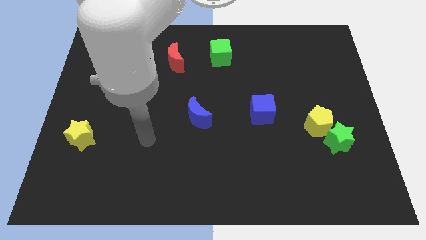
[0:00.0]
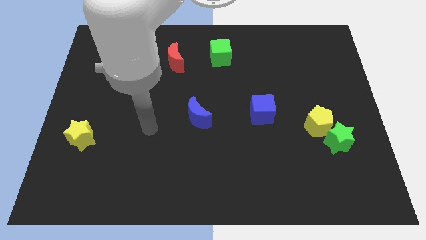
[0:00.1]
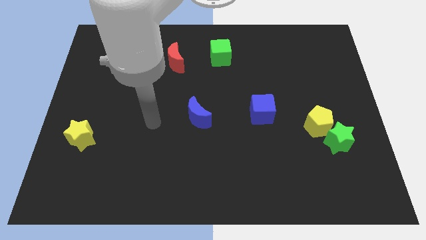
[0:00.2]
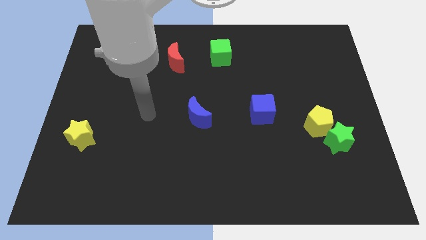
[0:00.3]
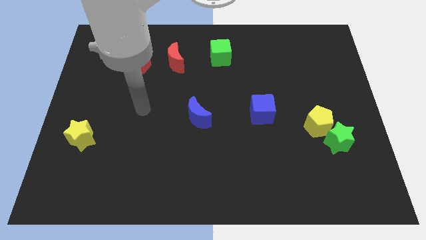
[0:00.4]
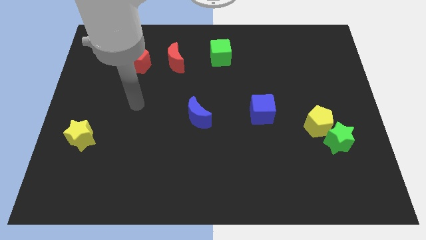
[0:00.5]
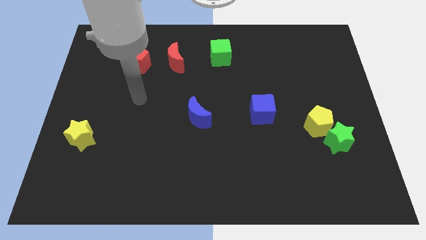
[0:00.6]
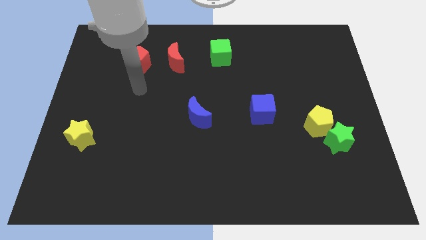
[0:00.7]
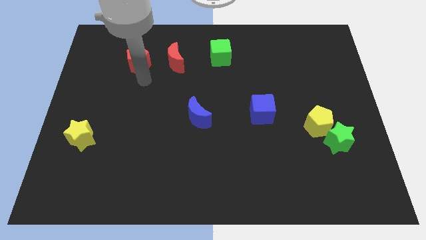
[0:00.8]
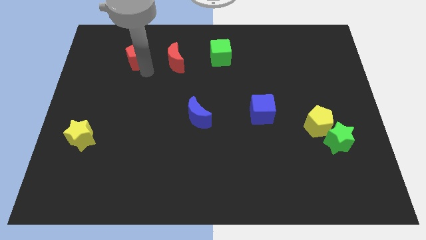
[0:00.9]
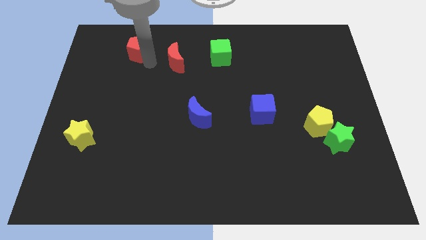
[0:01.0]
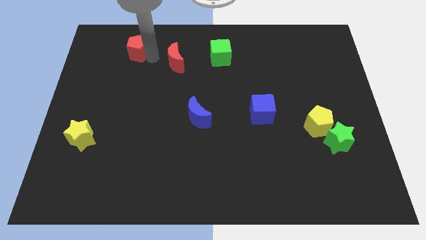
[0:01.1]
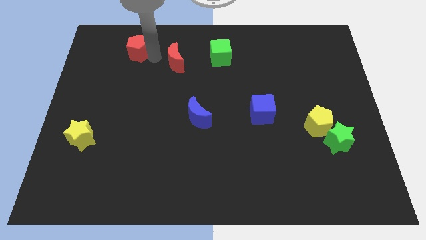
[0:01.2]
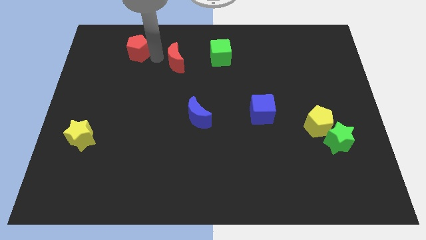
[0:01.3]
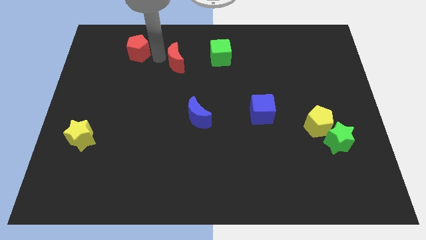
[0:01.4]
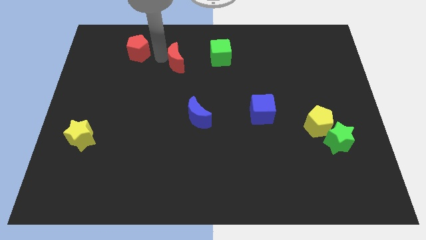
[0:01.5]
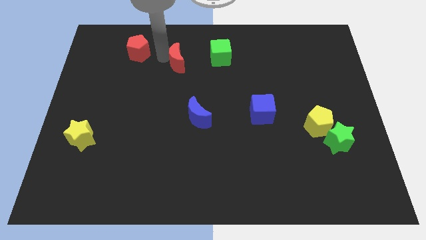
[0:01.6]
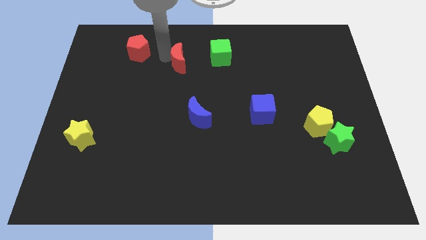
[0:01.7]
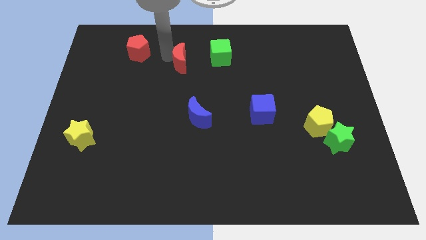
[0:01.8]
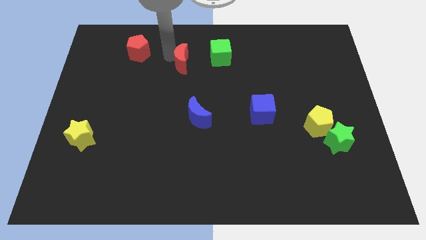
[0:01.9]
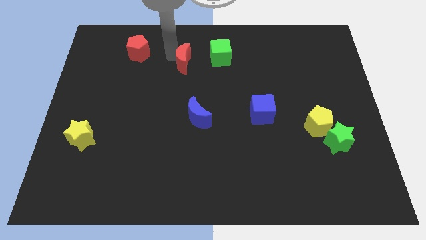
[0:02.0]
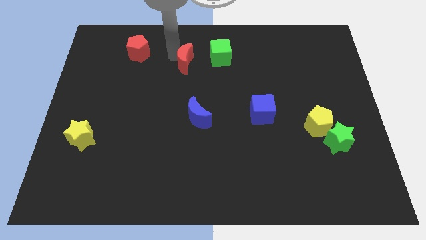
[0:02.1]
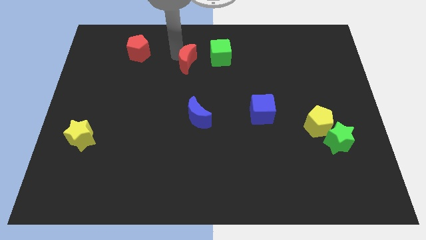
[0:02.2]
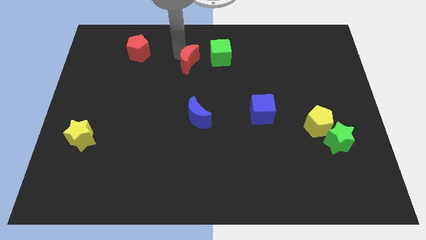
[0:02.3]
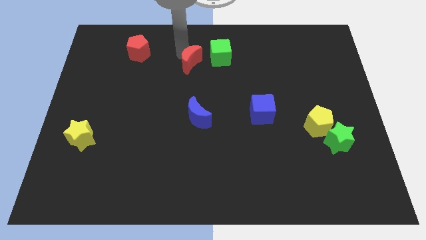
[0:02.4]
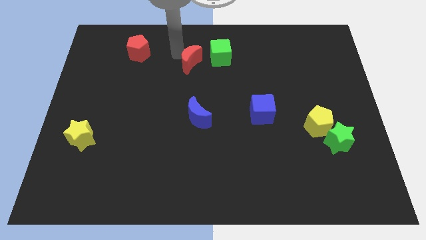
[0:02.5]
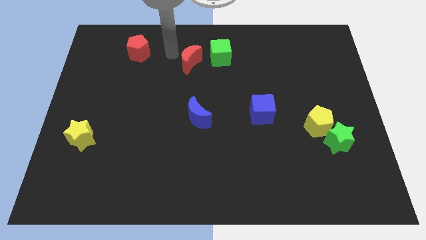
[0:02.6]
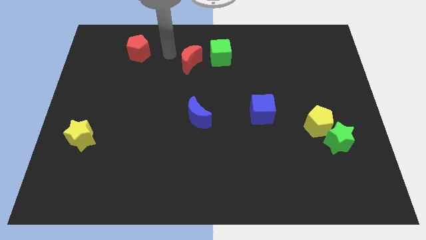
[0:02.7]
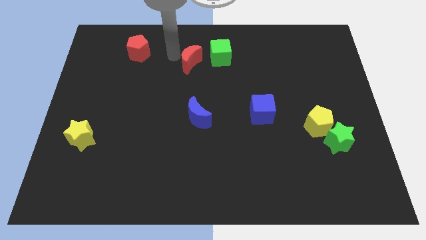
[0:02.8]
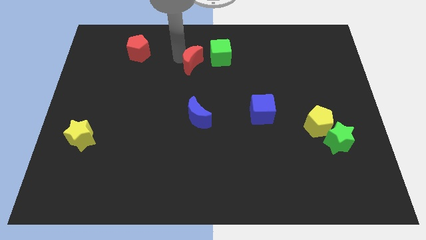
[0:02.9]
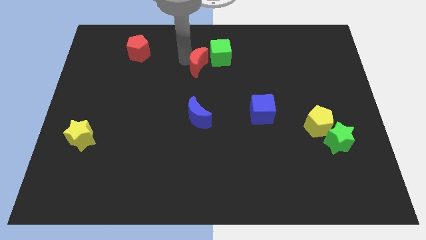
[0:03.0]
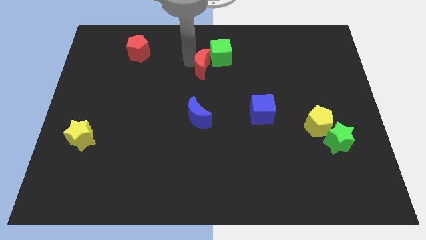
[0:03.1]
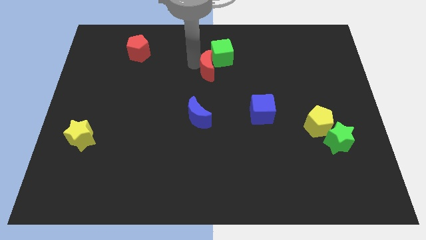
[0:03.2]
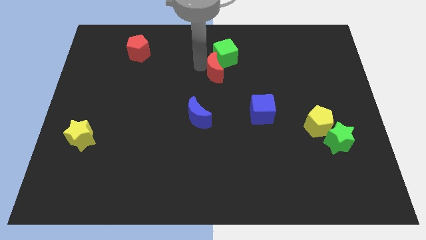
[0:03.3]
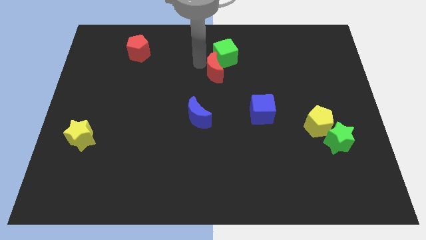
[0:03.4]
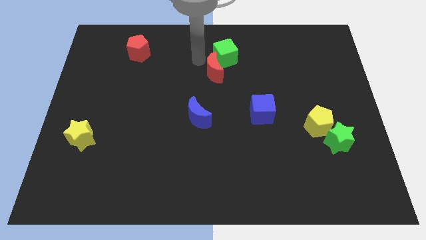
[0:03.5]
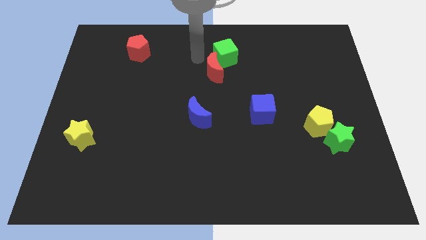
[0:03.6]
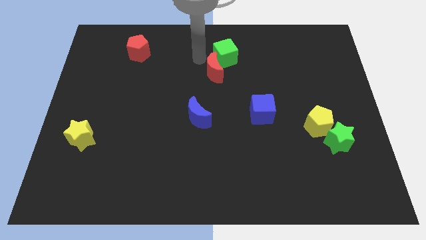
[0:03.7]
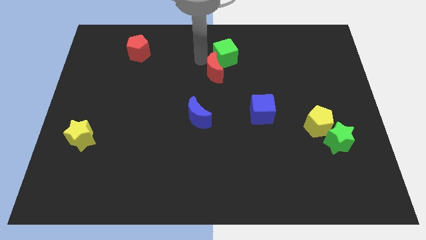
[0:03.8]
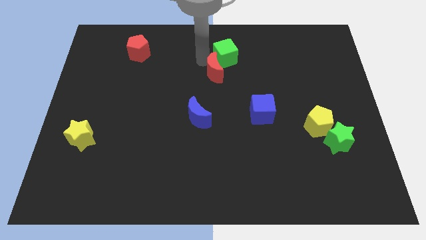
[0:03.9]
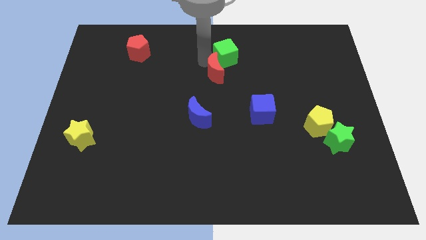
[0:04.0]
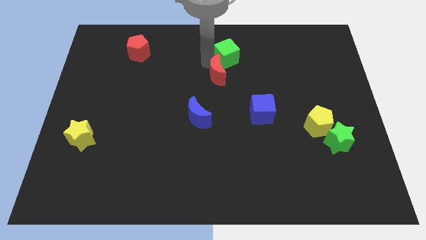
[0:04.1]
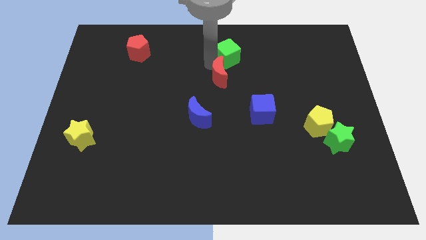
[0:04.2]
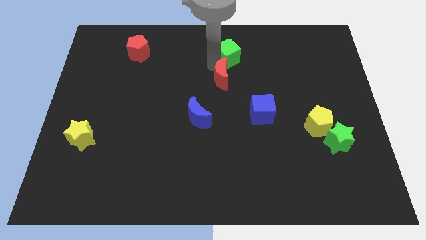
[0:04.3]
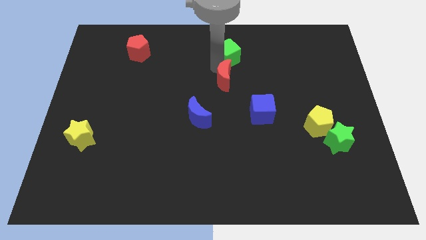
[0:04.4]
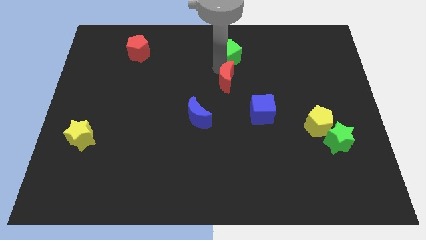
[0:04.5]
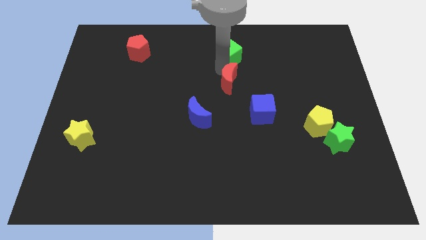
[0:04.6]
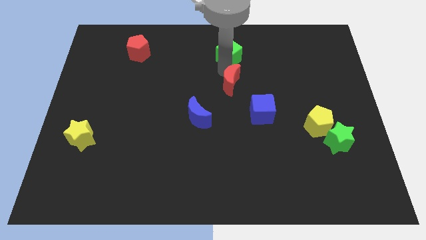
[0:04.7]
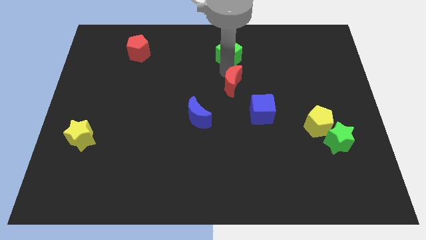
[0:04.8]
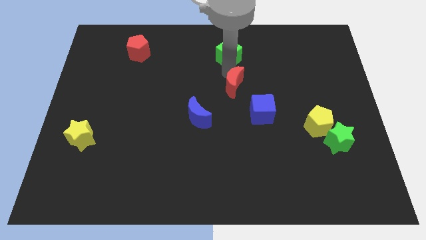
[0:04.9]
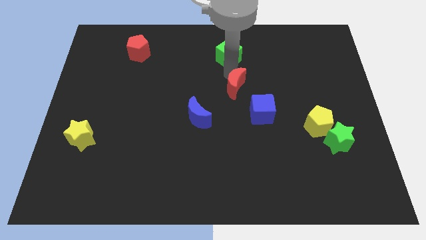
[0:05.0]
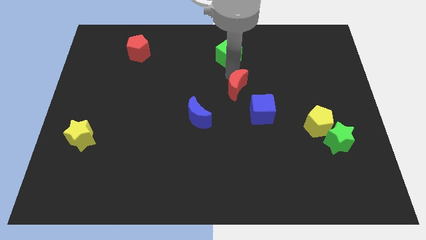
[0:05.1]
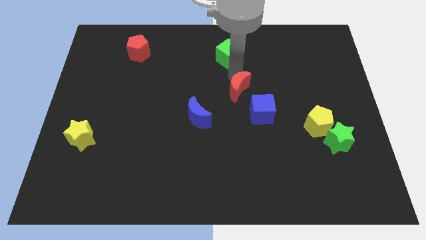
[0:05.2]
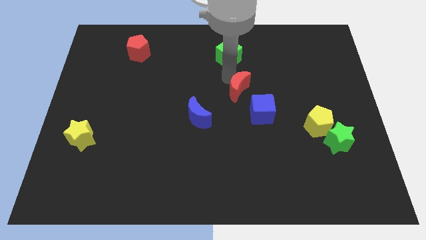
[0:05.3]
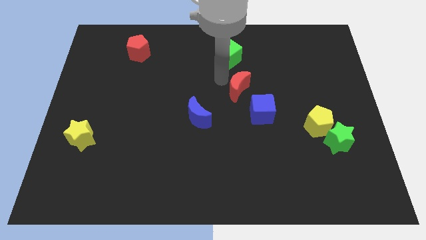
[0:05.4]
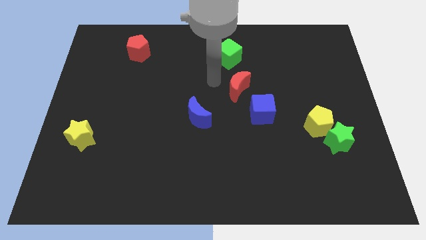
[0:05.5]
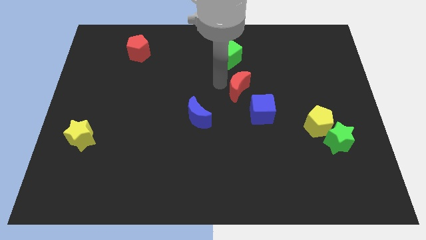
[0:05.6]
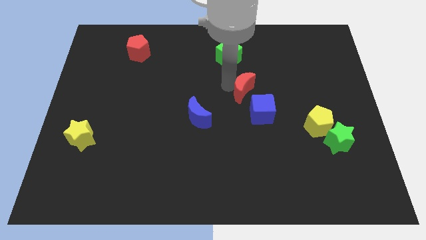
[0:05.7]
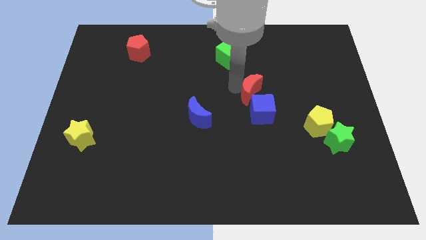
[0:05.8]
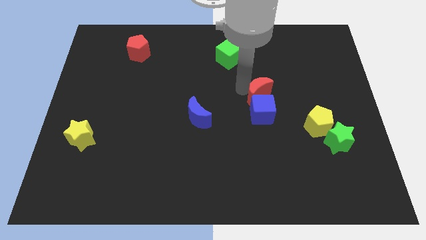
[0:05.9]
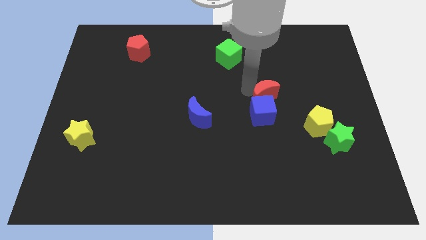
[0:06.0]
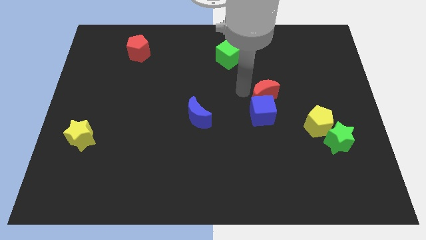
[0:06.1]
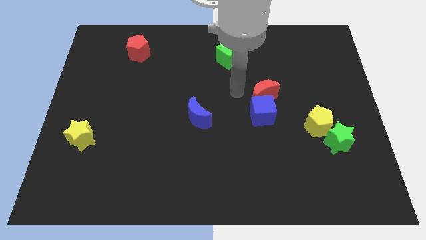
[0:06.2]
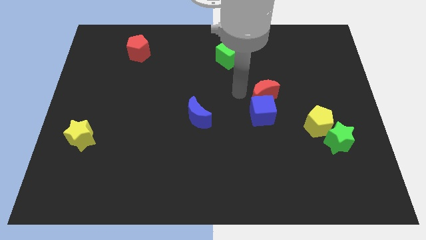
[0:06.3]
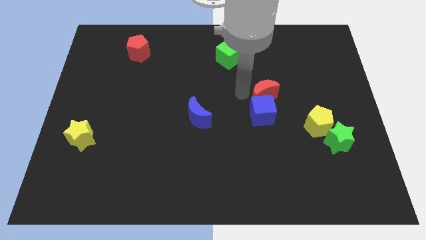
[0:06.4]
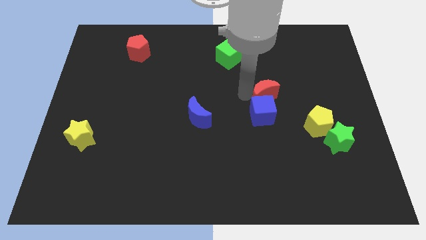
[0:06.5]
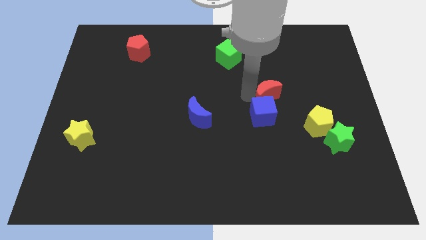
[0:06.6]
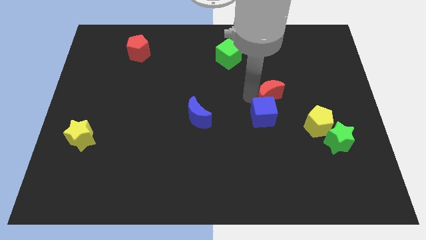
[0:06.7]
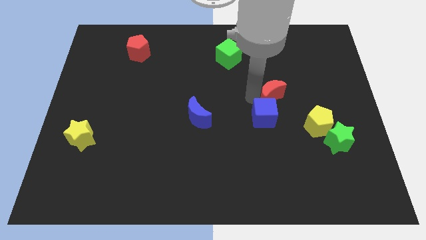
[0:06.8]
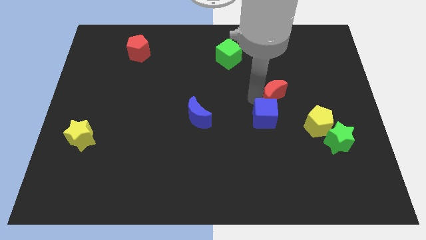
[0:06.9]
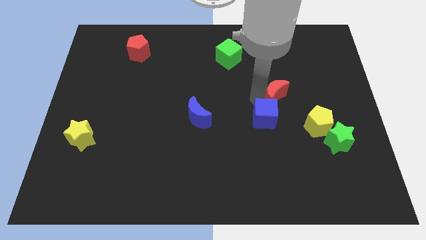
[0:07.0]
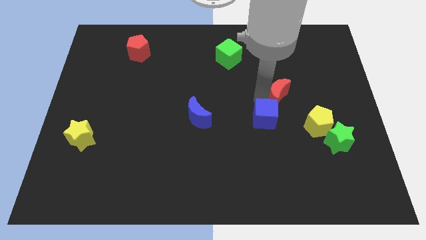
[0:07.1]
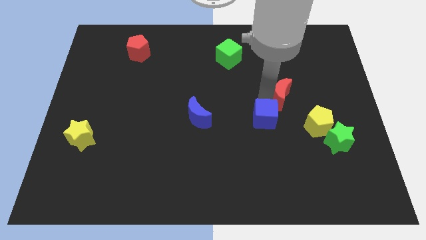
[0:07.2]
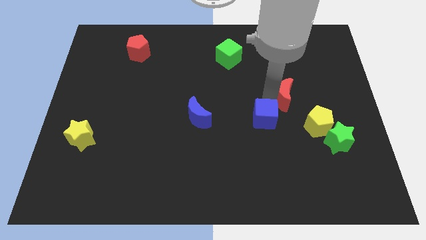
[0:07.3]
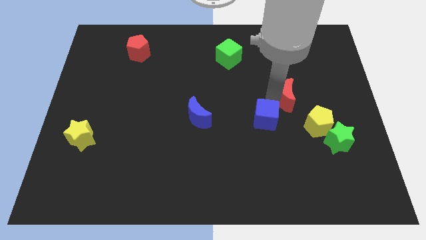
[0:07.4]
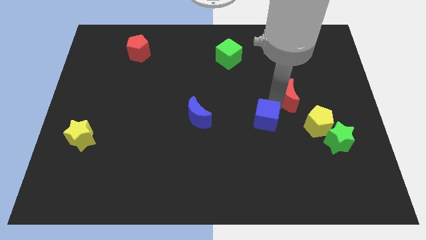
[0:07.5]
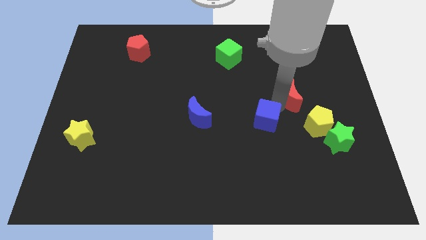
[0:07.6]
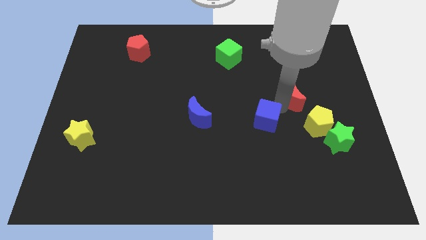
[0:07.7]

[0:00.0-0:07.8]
put the red moon above the yellow pentagon
